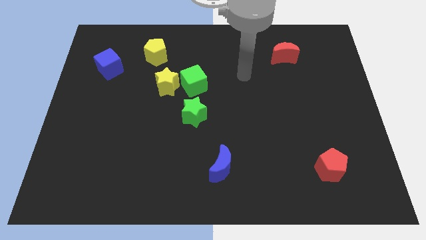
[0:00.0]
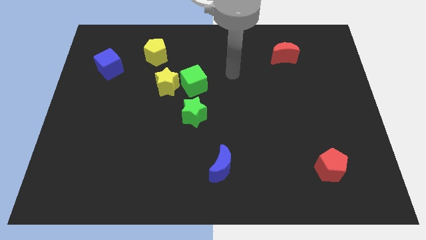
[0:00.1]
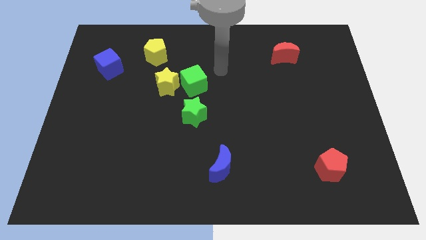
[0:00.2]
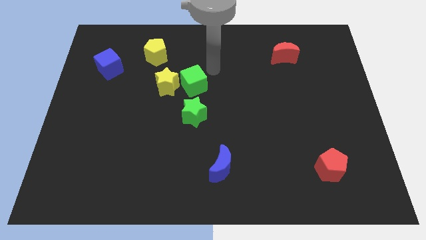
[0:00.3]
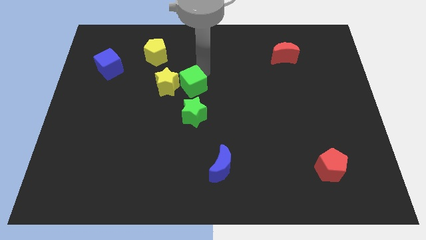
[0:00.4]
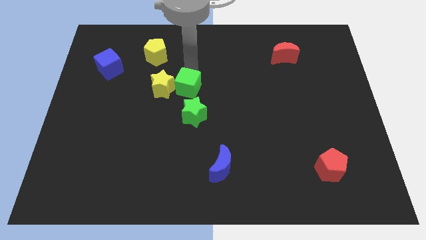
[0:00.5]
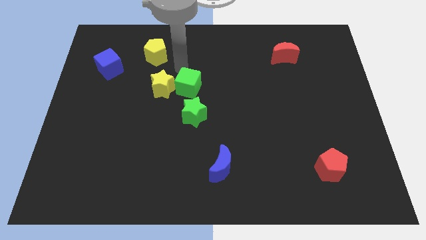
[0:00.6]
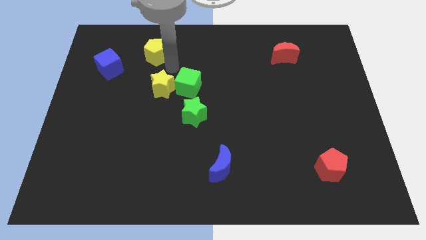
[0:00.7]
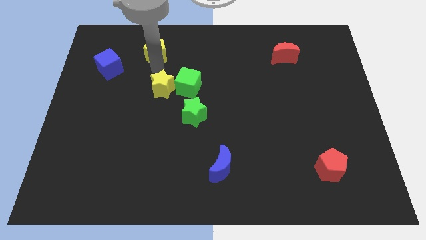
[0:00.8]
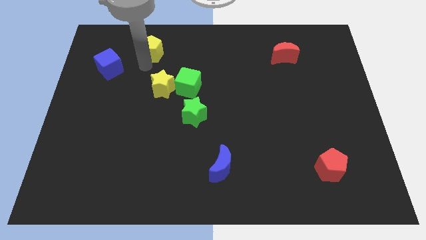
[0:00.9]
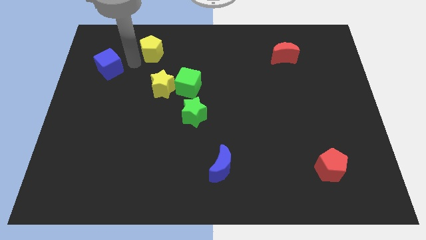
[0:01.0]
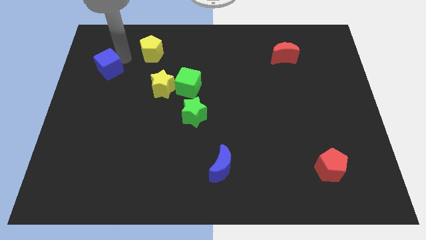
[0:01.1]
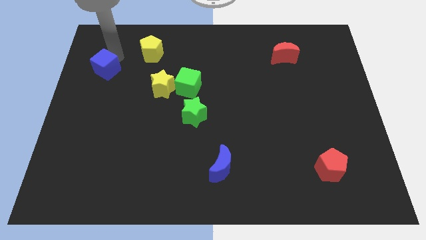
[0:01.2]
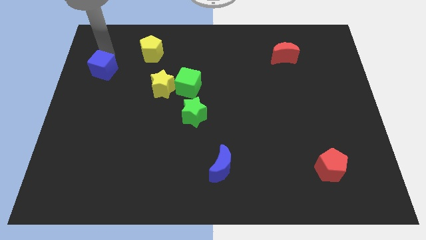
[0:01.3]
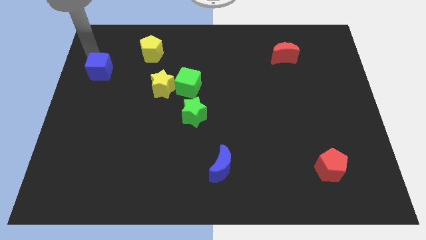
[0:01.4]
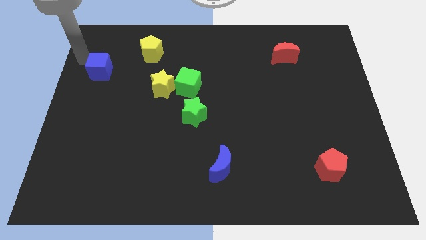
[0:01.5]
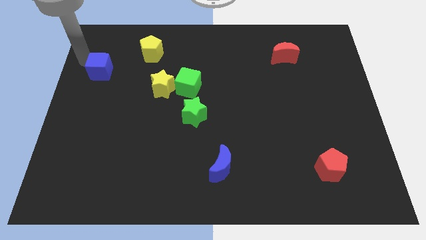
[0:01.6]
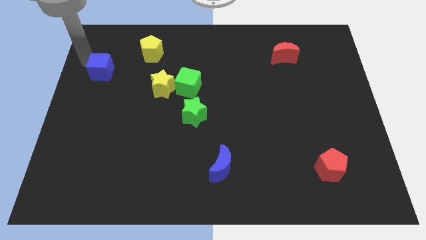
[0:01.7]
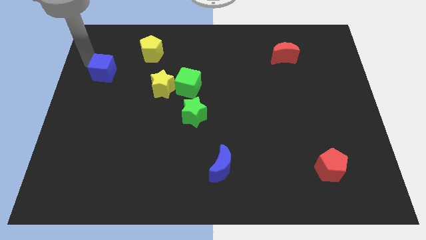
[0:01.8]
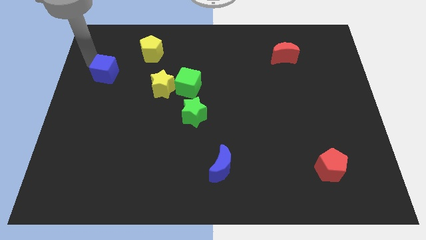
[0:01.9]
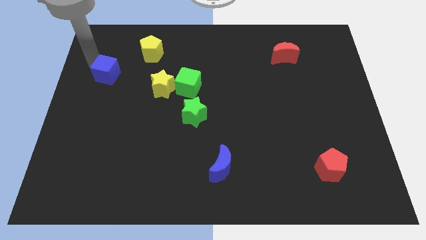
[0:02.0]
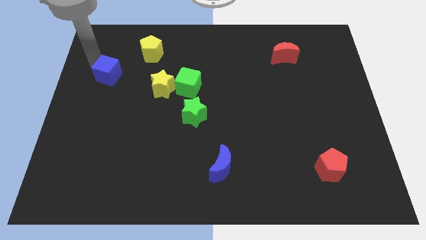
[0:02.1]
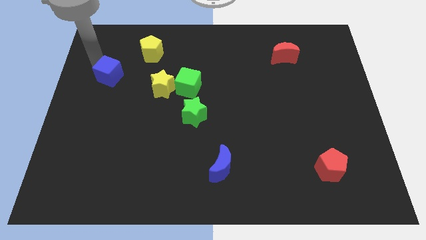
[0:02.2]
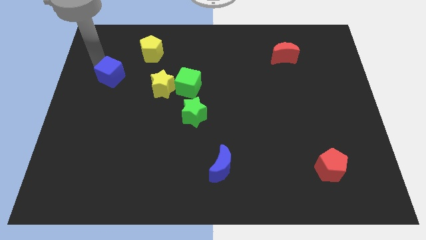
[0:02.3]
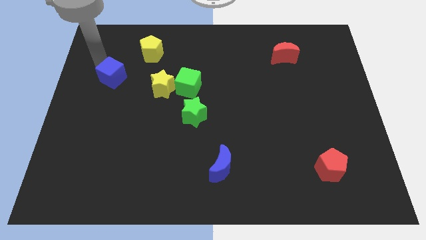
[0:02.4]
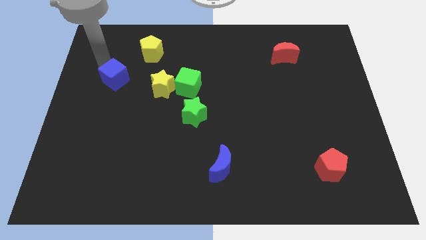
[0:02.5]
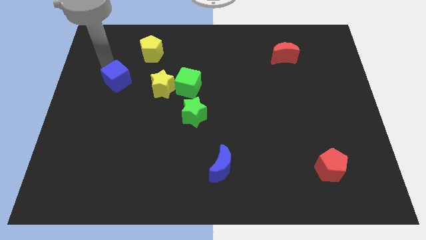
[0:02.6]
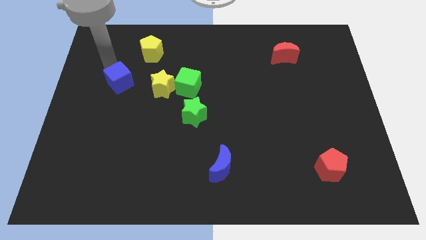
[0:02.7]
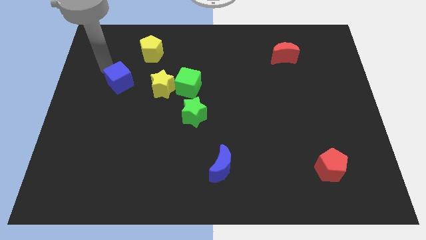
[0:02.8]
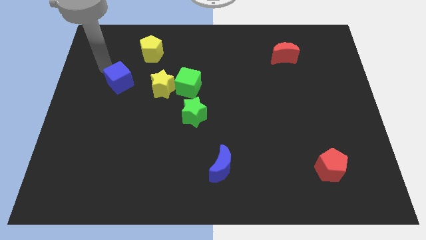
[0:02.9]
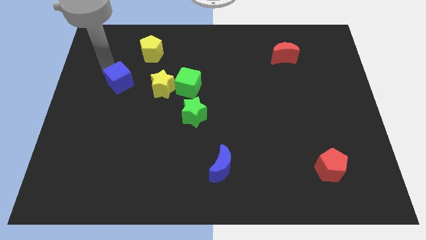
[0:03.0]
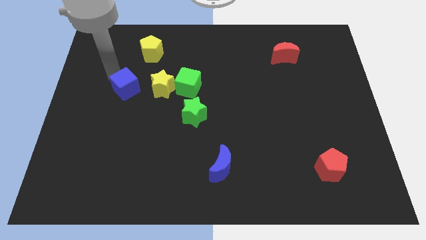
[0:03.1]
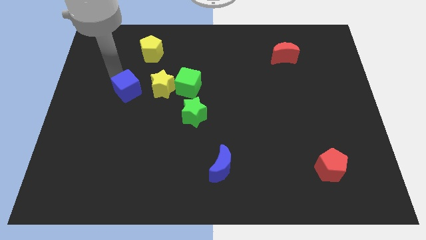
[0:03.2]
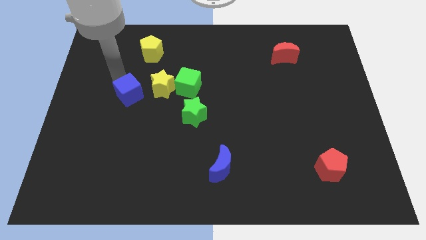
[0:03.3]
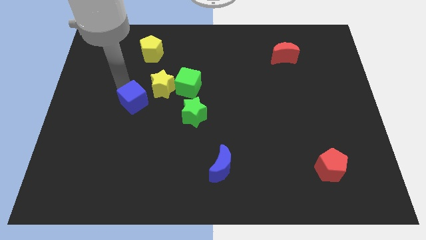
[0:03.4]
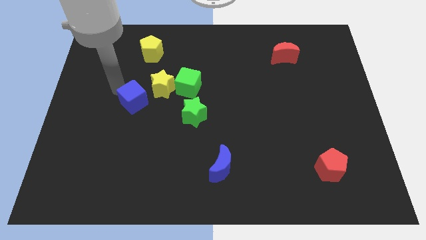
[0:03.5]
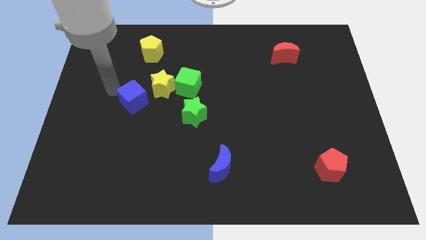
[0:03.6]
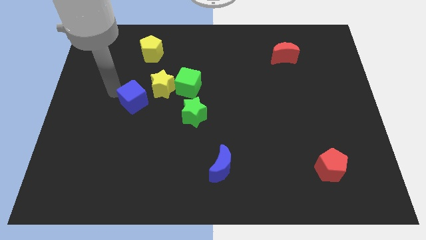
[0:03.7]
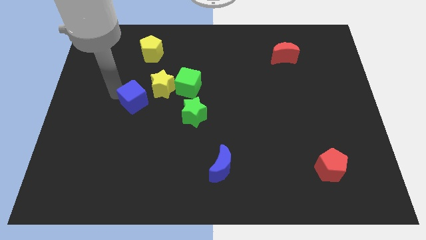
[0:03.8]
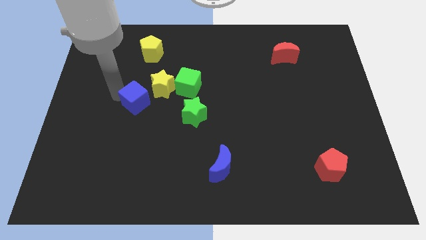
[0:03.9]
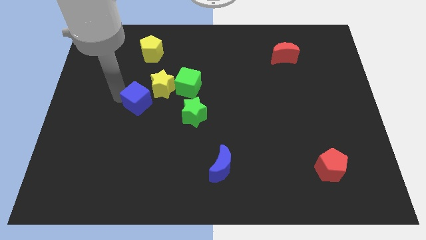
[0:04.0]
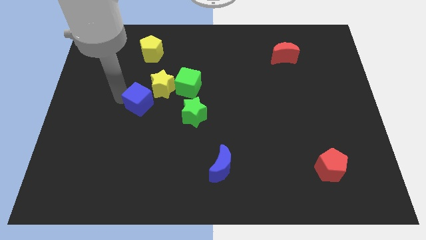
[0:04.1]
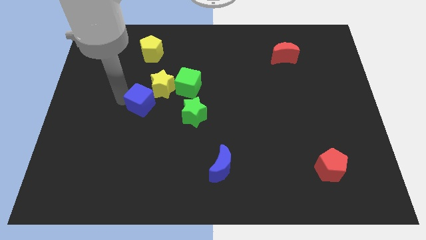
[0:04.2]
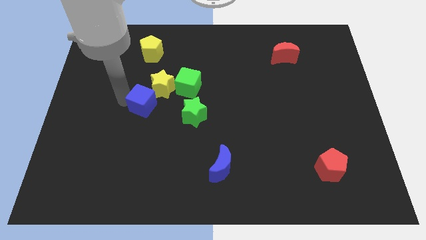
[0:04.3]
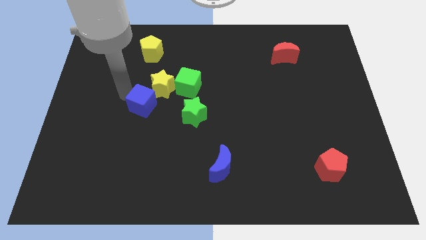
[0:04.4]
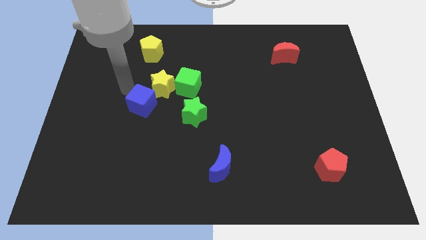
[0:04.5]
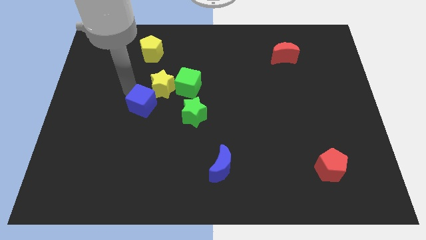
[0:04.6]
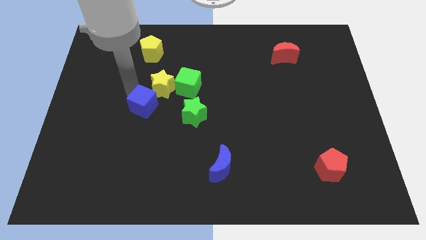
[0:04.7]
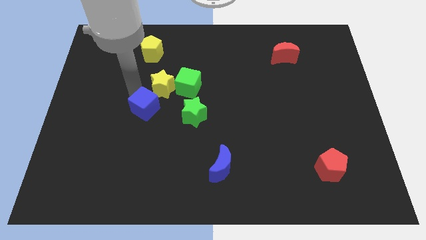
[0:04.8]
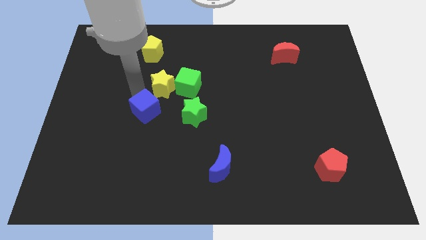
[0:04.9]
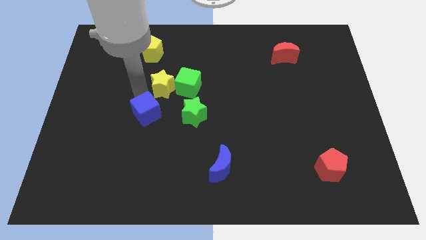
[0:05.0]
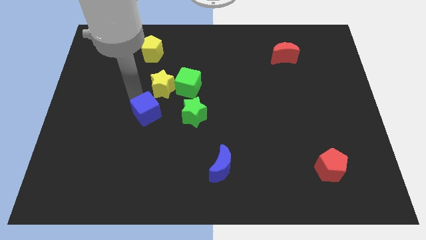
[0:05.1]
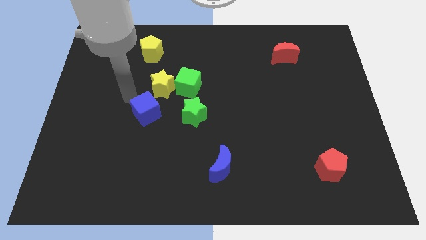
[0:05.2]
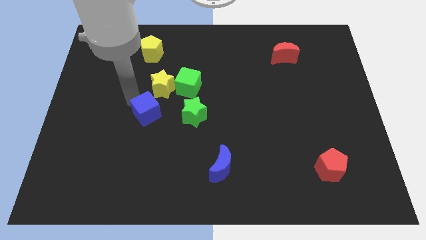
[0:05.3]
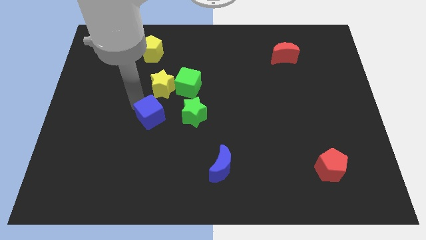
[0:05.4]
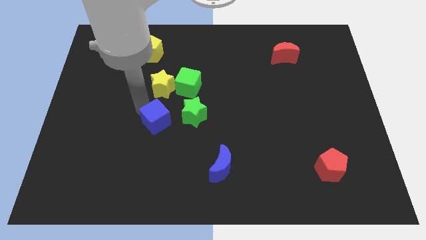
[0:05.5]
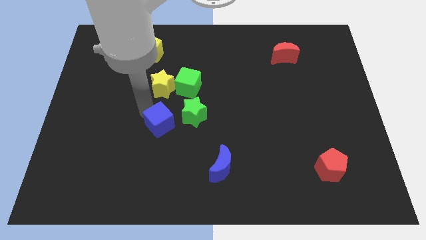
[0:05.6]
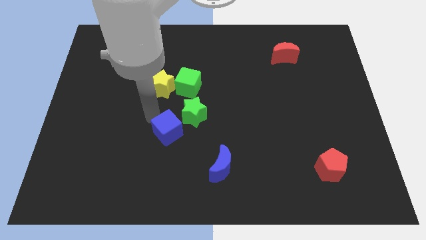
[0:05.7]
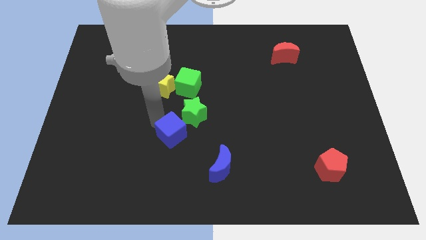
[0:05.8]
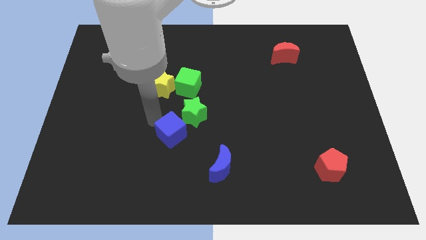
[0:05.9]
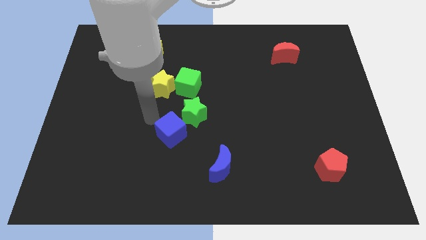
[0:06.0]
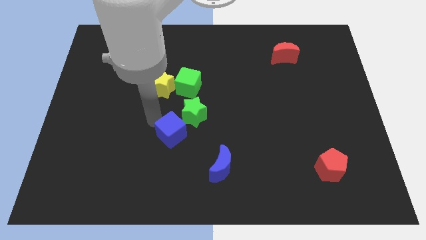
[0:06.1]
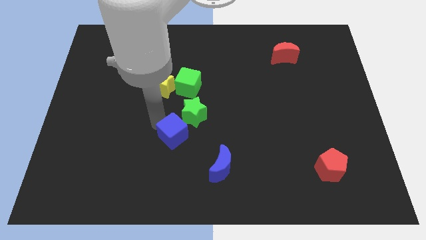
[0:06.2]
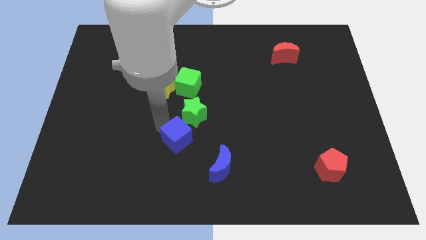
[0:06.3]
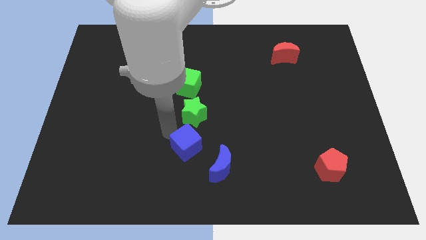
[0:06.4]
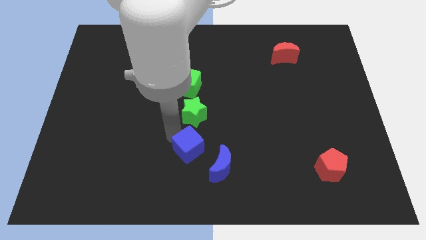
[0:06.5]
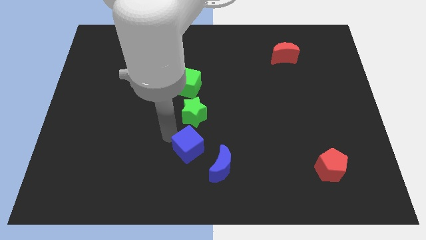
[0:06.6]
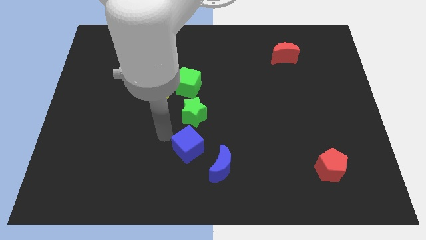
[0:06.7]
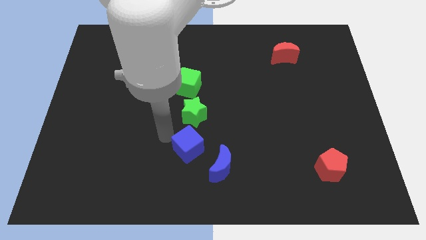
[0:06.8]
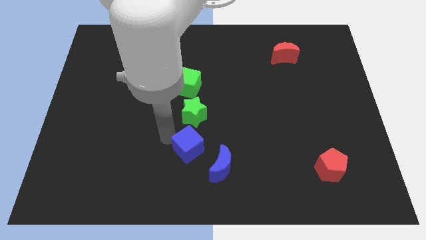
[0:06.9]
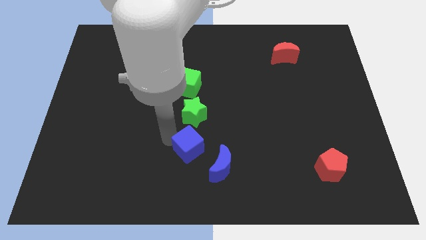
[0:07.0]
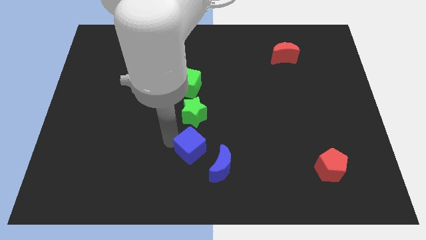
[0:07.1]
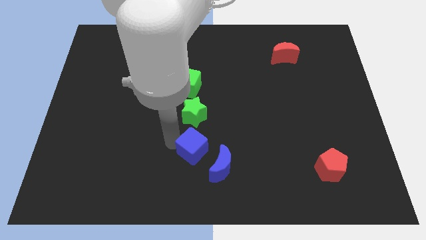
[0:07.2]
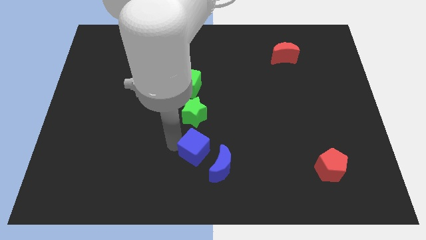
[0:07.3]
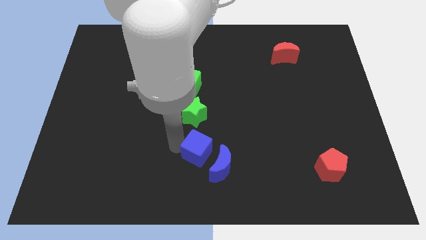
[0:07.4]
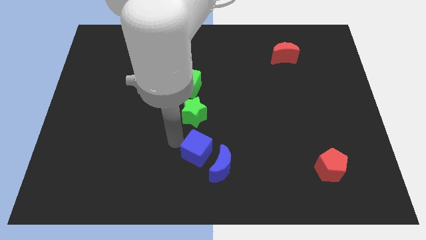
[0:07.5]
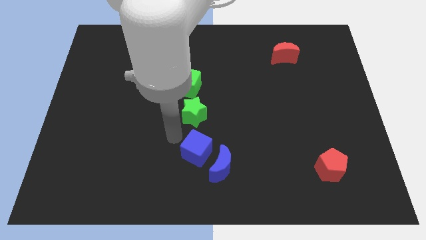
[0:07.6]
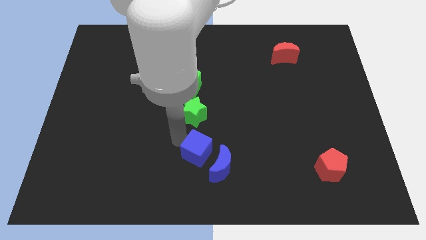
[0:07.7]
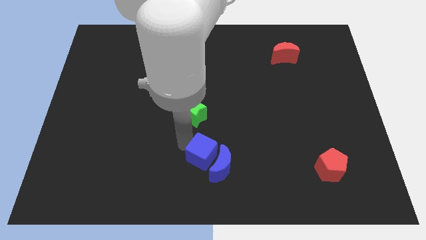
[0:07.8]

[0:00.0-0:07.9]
push the blue cube close to the blue moon
